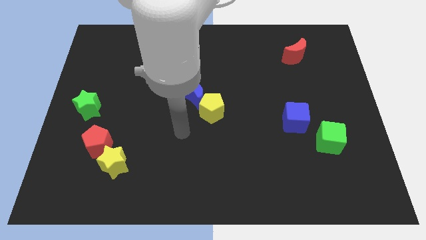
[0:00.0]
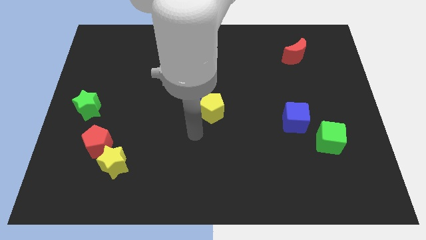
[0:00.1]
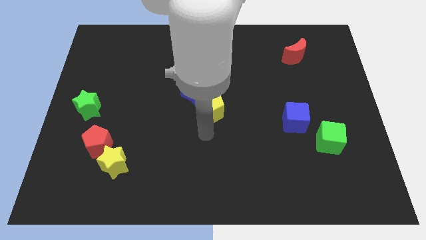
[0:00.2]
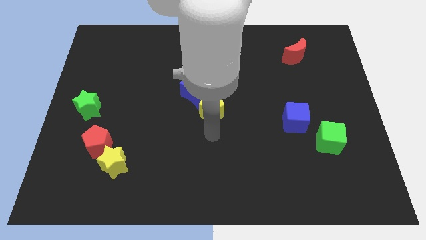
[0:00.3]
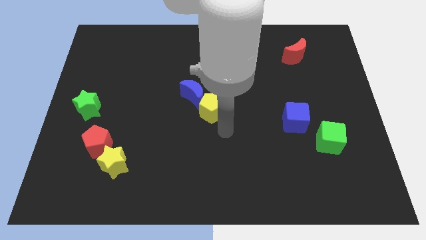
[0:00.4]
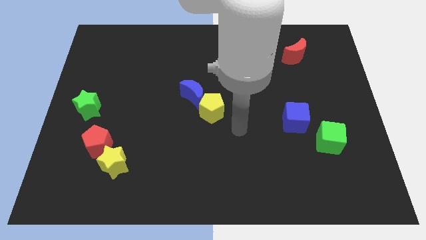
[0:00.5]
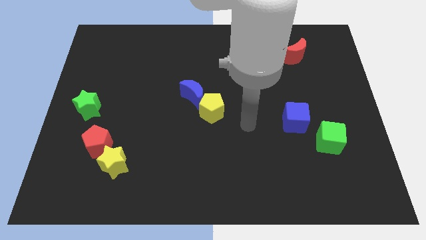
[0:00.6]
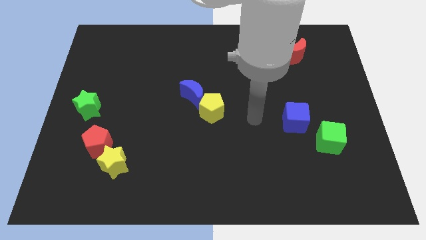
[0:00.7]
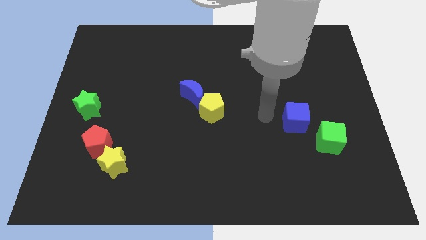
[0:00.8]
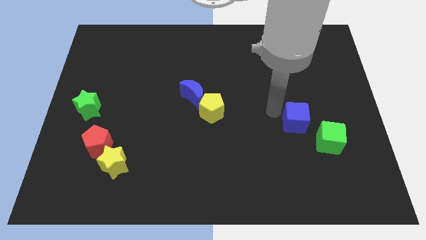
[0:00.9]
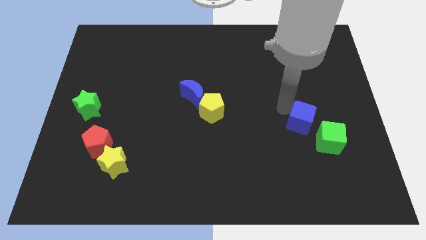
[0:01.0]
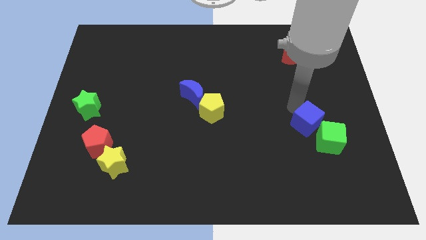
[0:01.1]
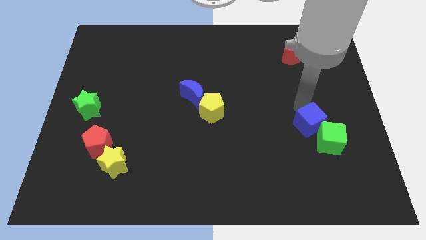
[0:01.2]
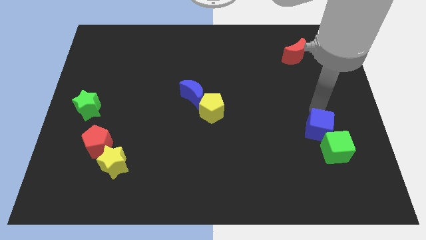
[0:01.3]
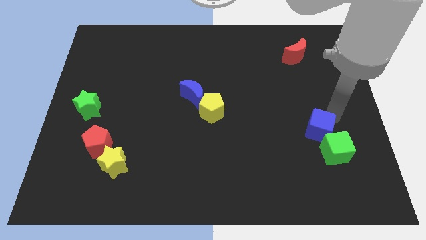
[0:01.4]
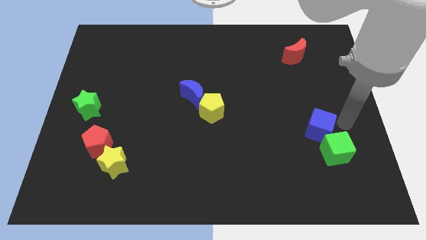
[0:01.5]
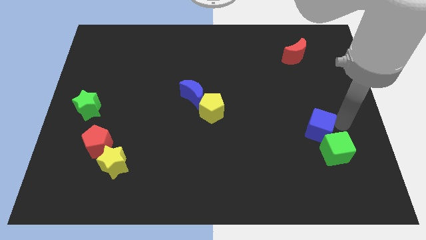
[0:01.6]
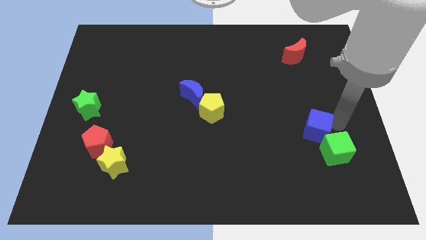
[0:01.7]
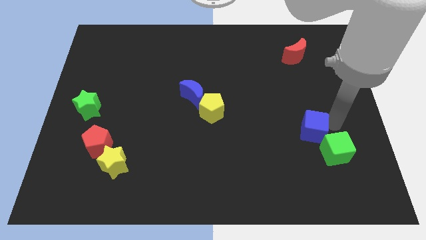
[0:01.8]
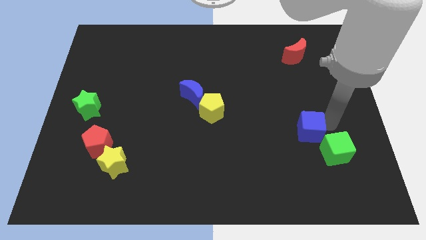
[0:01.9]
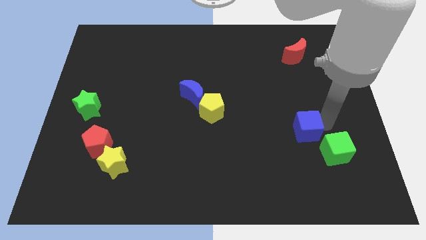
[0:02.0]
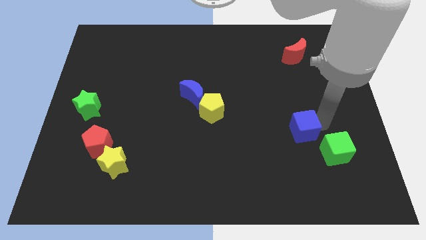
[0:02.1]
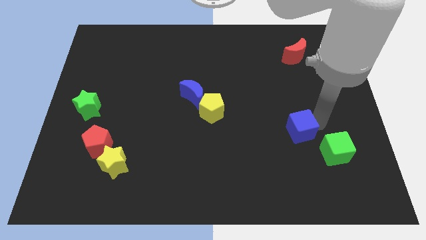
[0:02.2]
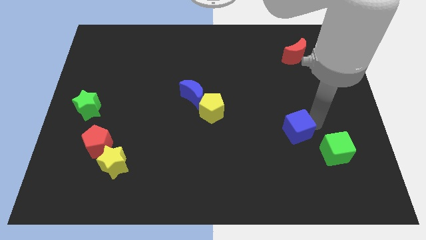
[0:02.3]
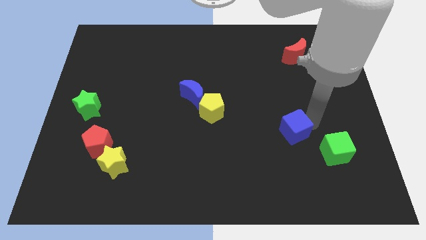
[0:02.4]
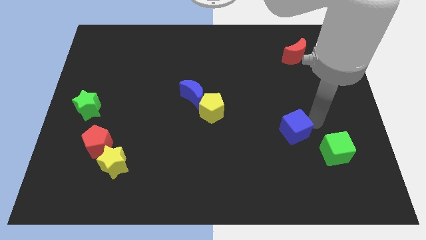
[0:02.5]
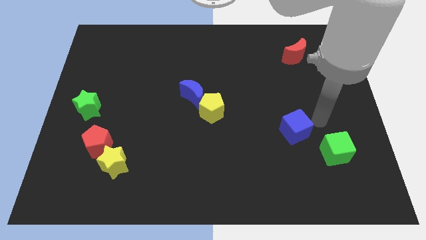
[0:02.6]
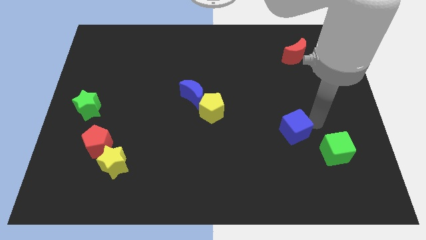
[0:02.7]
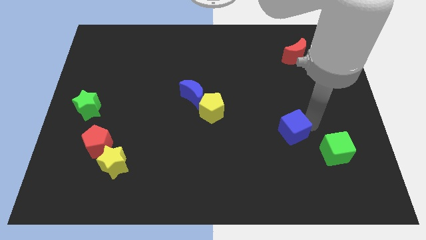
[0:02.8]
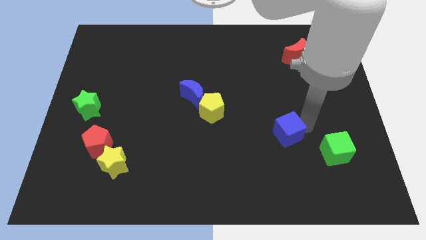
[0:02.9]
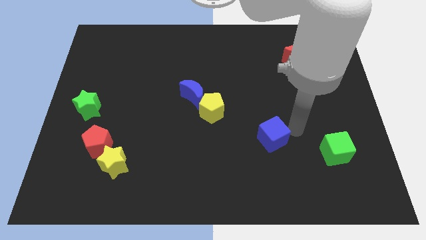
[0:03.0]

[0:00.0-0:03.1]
slightly move the blue cube down and then to the left

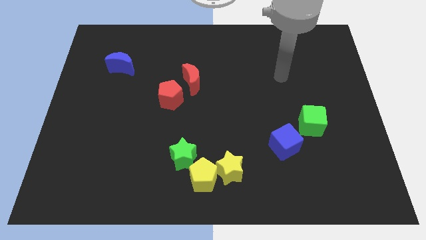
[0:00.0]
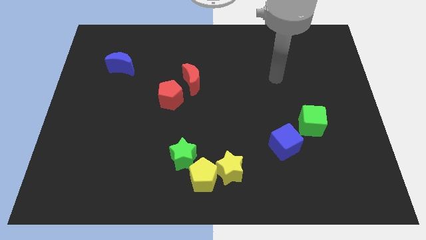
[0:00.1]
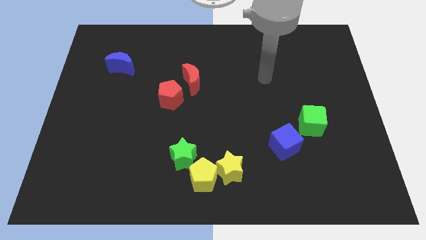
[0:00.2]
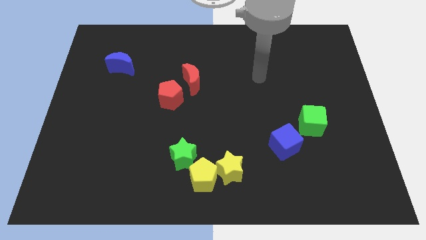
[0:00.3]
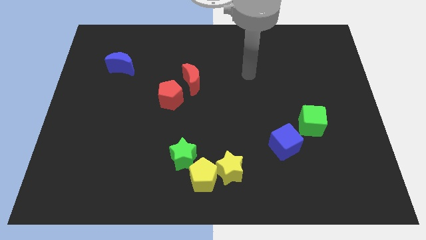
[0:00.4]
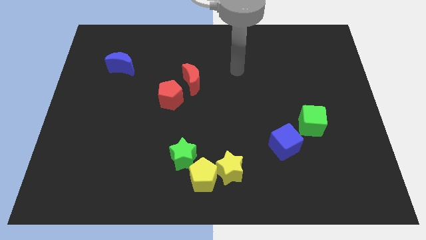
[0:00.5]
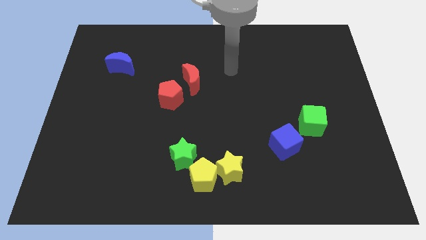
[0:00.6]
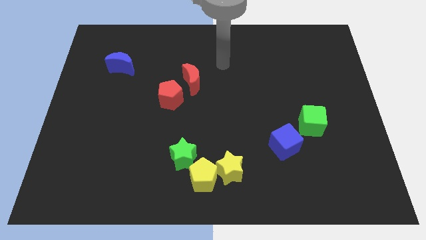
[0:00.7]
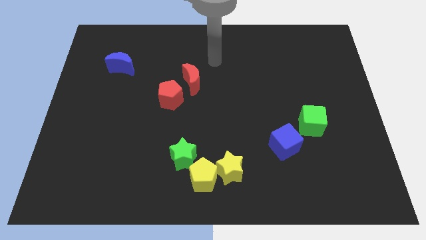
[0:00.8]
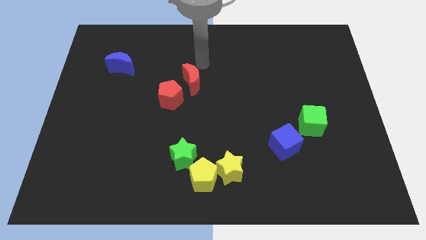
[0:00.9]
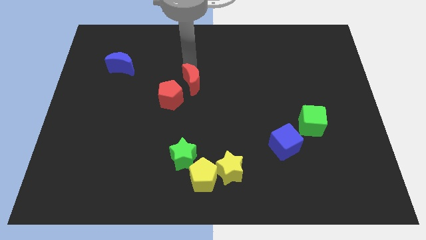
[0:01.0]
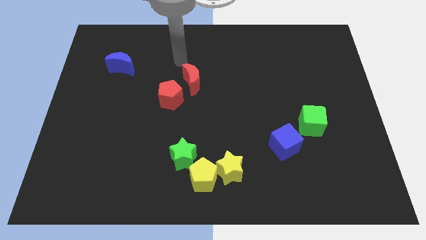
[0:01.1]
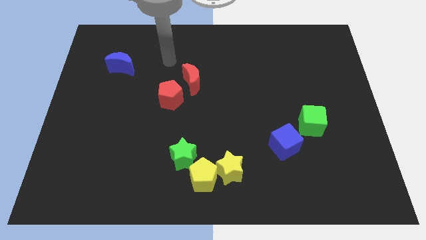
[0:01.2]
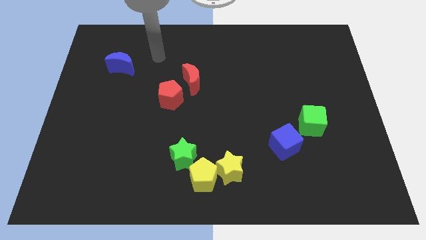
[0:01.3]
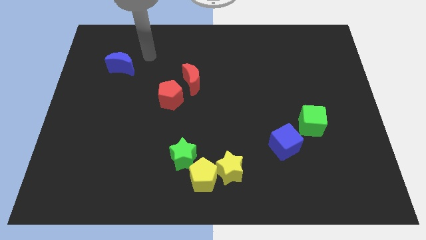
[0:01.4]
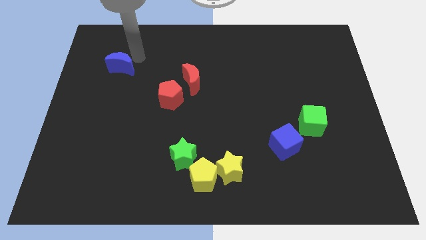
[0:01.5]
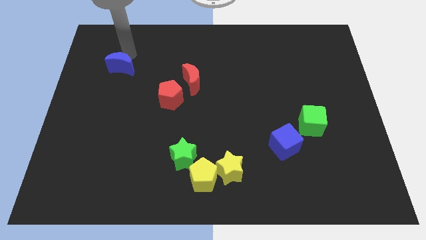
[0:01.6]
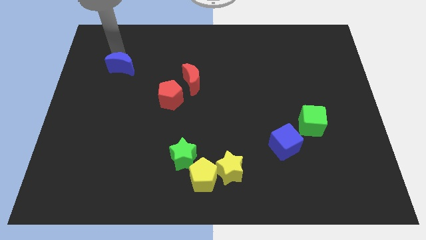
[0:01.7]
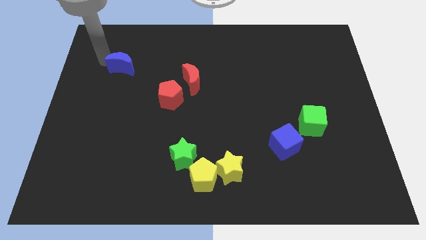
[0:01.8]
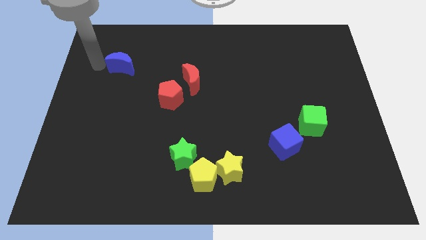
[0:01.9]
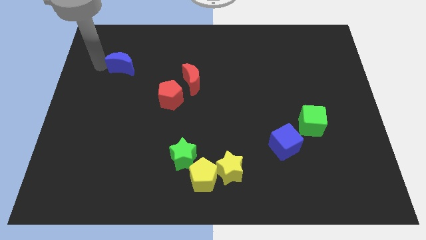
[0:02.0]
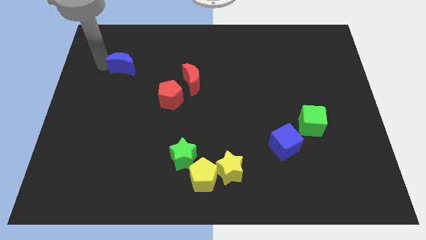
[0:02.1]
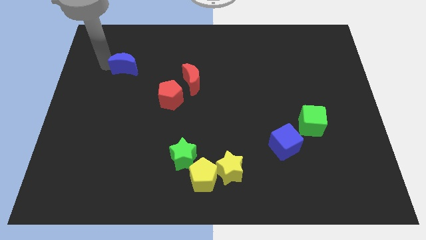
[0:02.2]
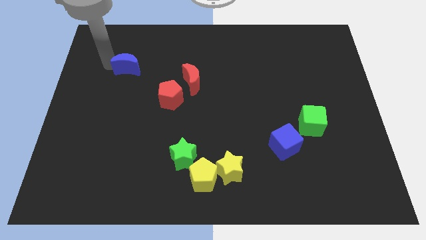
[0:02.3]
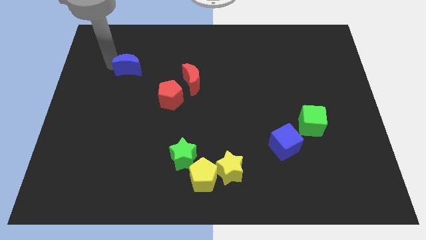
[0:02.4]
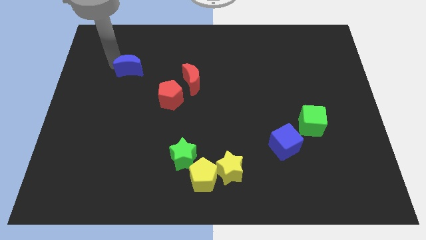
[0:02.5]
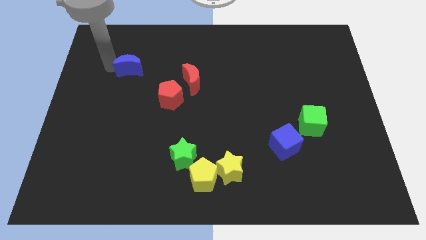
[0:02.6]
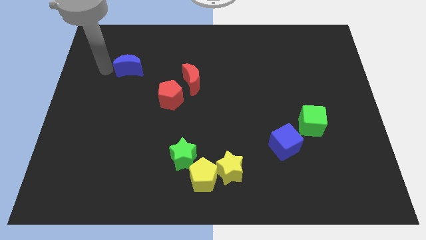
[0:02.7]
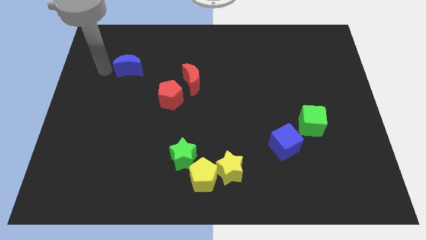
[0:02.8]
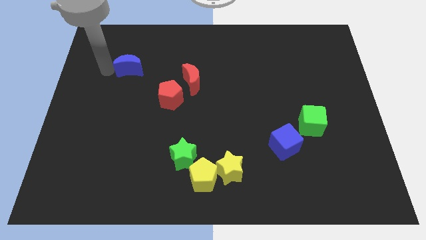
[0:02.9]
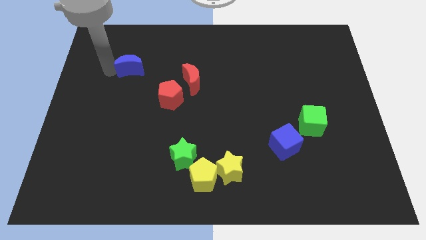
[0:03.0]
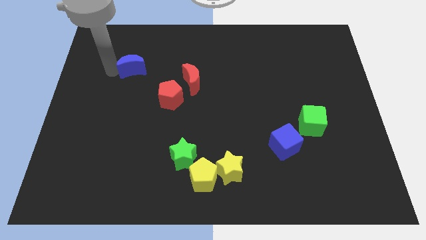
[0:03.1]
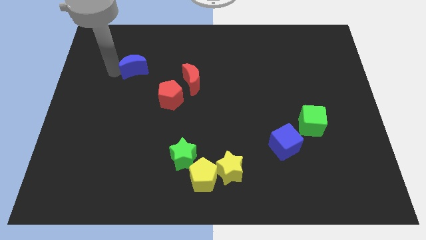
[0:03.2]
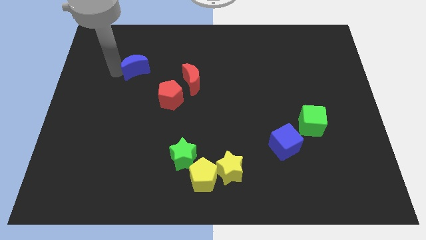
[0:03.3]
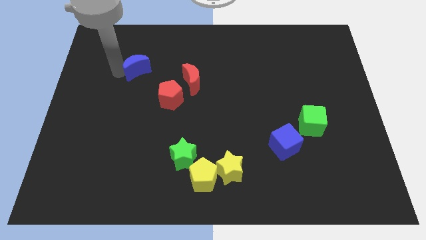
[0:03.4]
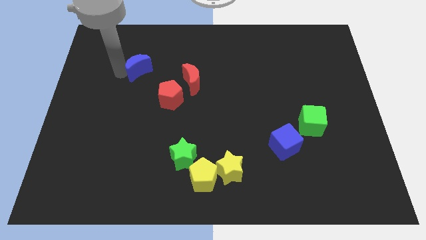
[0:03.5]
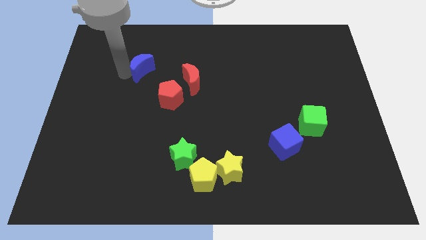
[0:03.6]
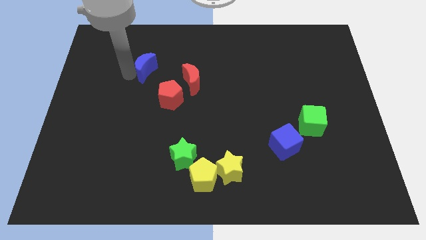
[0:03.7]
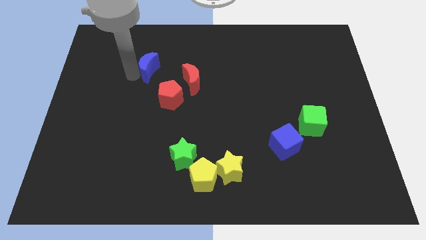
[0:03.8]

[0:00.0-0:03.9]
slightly slide the blue moon right

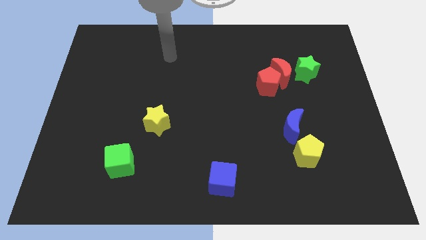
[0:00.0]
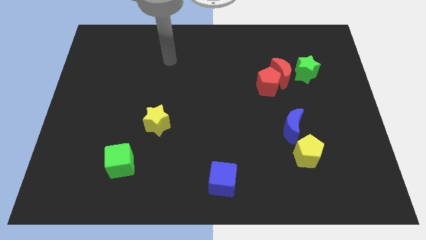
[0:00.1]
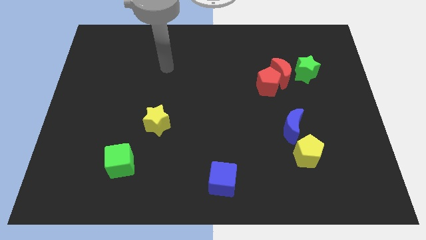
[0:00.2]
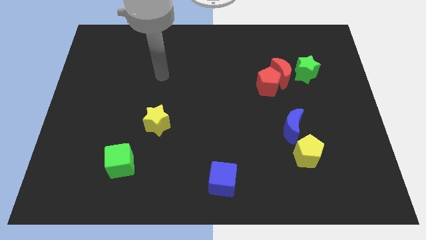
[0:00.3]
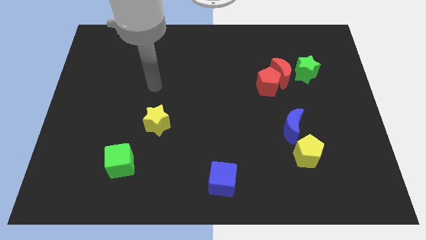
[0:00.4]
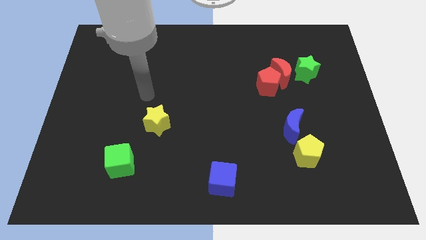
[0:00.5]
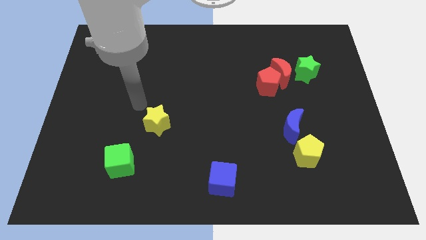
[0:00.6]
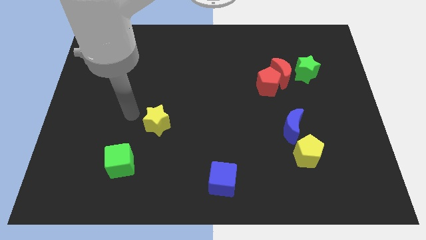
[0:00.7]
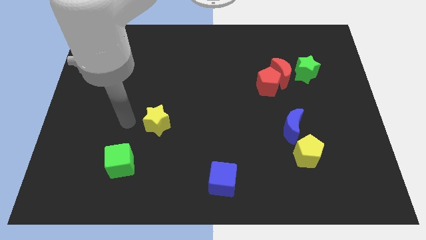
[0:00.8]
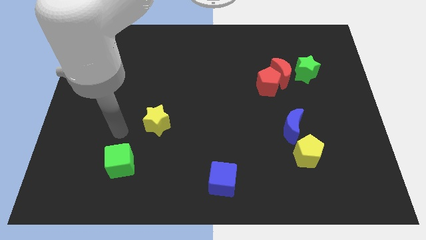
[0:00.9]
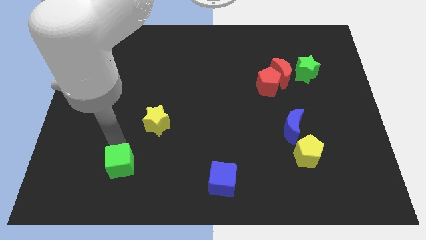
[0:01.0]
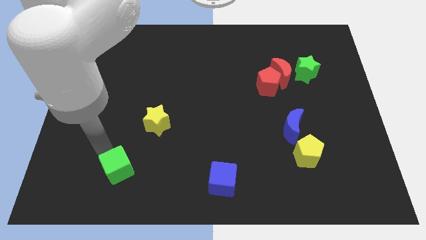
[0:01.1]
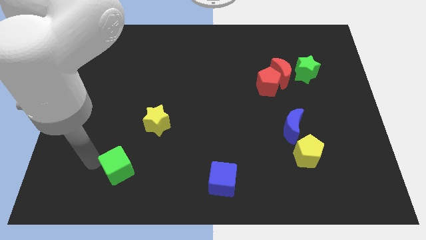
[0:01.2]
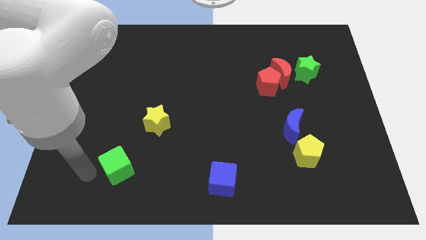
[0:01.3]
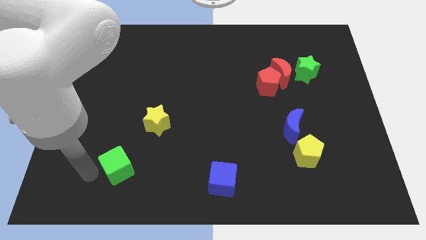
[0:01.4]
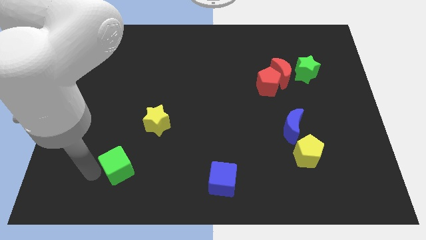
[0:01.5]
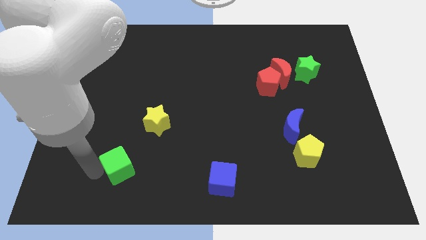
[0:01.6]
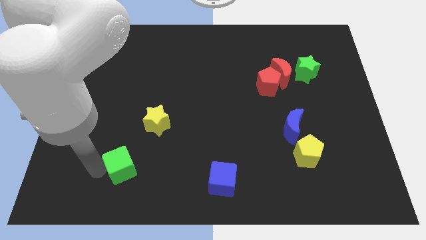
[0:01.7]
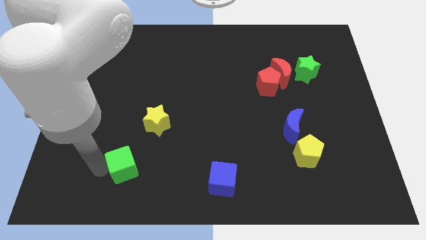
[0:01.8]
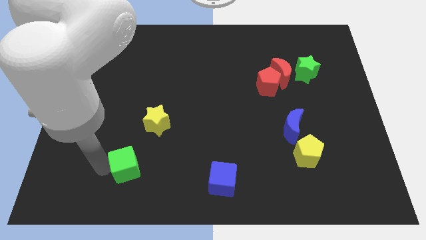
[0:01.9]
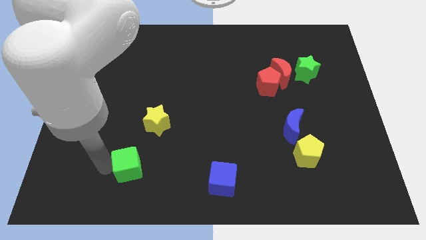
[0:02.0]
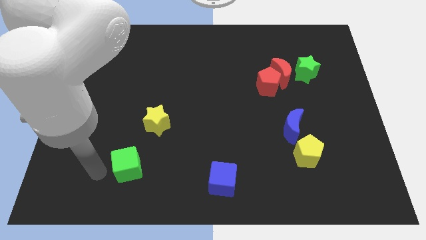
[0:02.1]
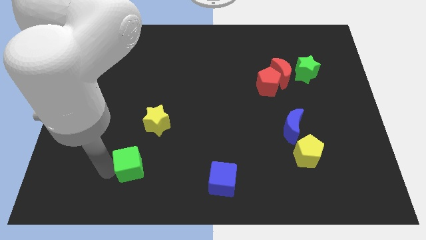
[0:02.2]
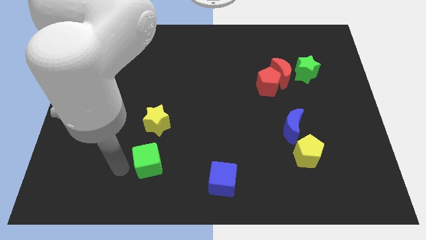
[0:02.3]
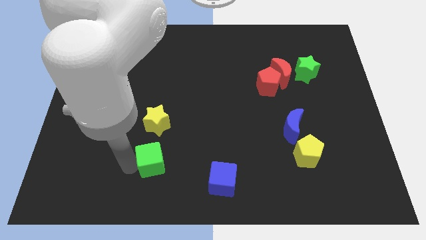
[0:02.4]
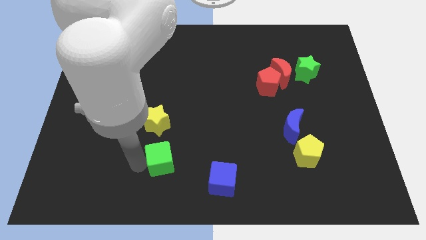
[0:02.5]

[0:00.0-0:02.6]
slightly push the green cube to the right
